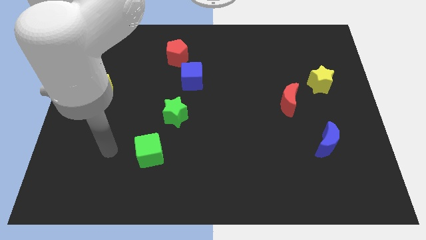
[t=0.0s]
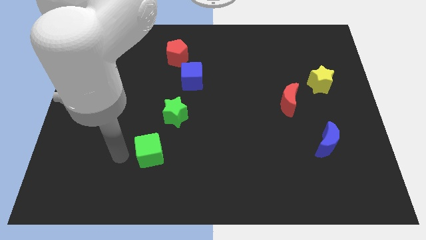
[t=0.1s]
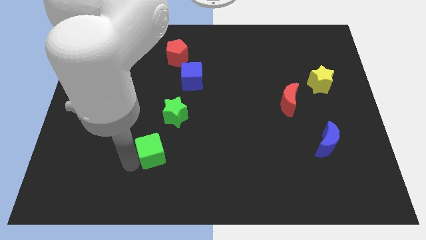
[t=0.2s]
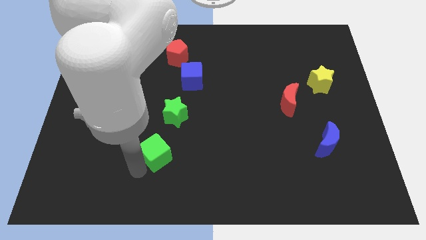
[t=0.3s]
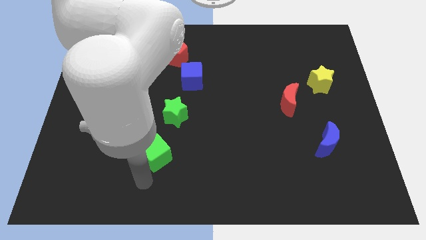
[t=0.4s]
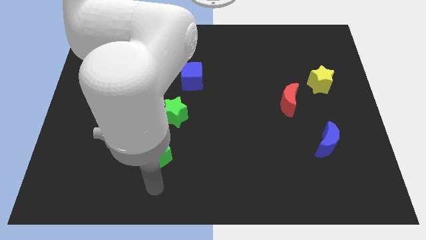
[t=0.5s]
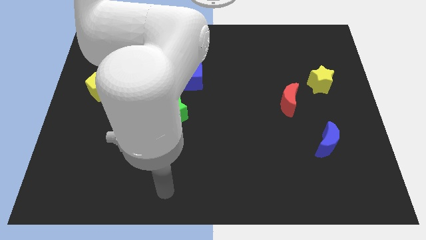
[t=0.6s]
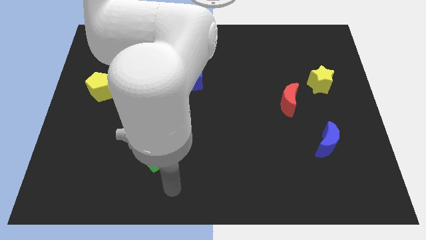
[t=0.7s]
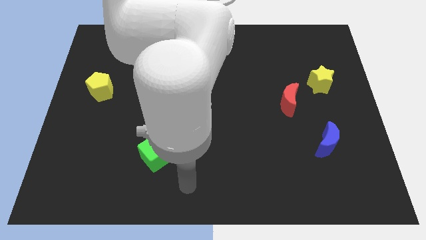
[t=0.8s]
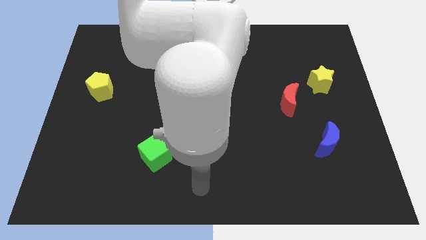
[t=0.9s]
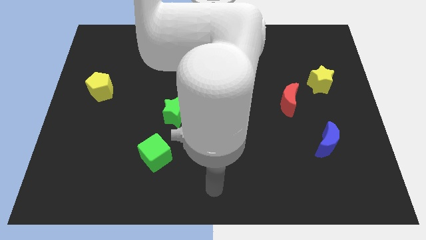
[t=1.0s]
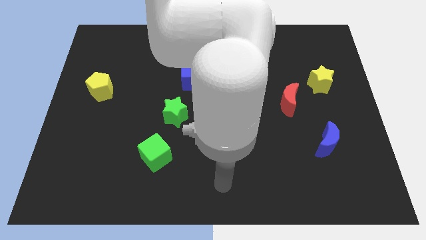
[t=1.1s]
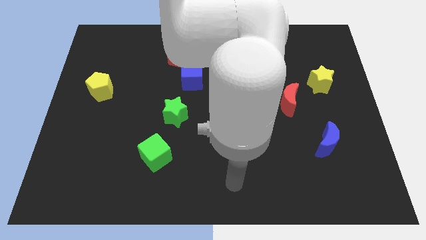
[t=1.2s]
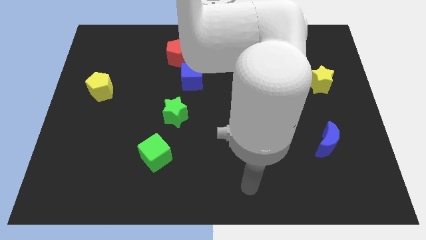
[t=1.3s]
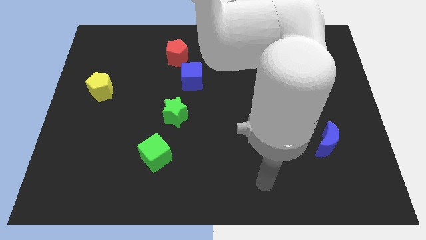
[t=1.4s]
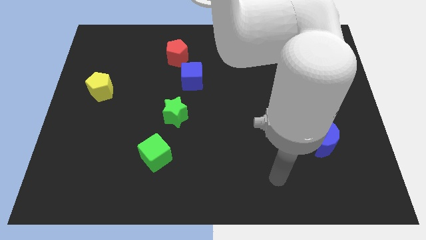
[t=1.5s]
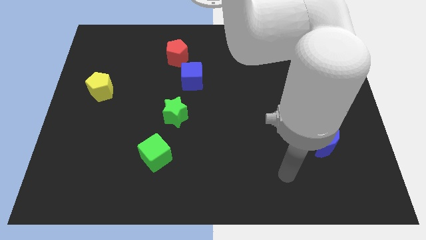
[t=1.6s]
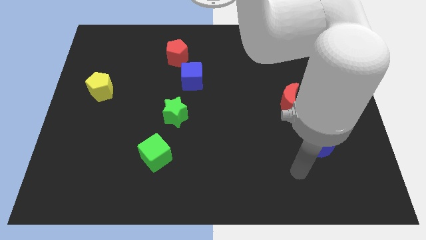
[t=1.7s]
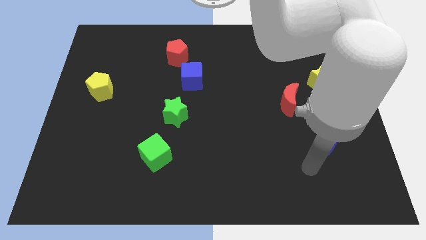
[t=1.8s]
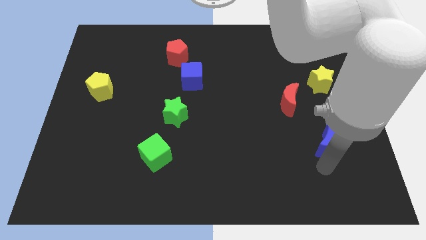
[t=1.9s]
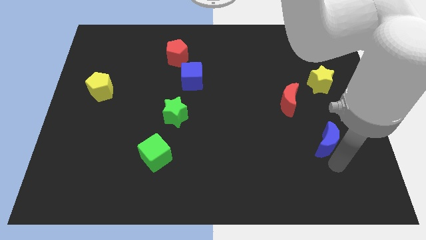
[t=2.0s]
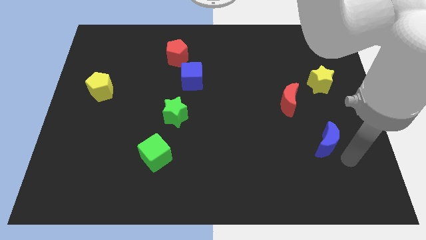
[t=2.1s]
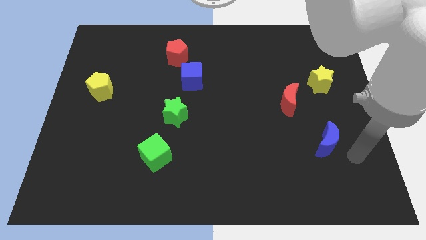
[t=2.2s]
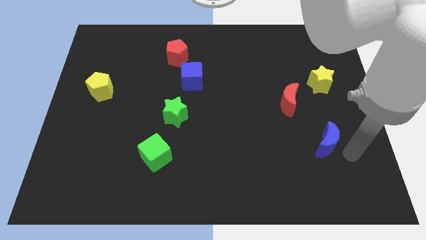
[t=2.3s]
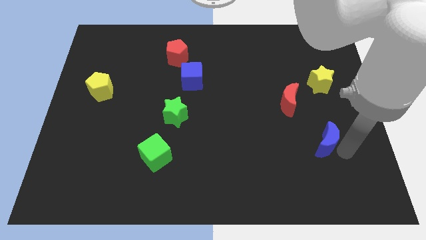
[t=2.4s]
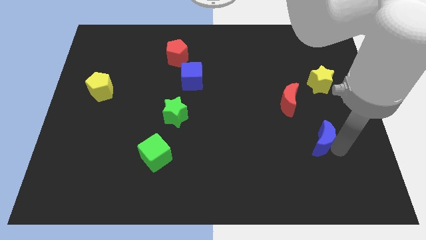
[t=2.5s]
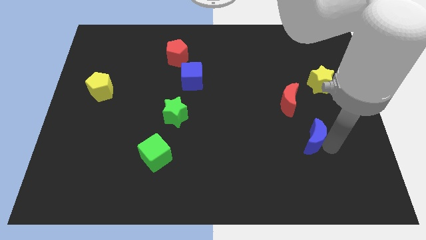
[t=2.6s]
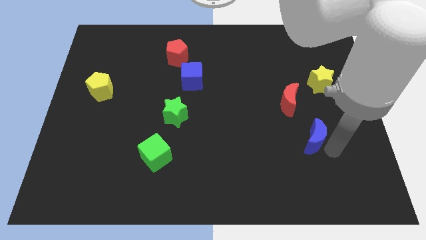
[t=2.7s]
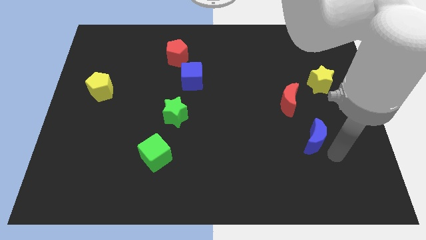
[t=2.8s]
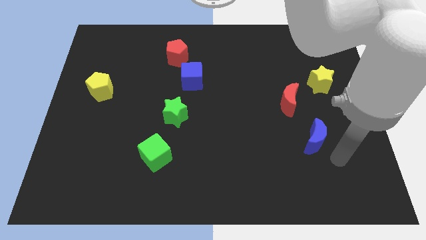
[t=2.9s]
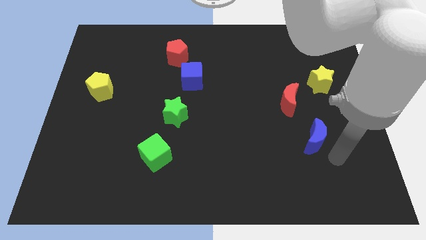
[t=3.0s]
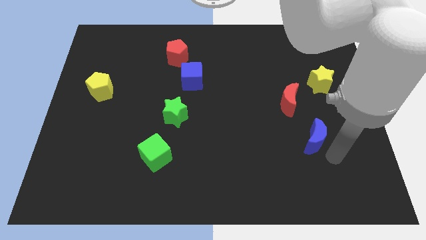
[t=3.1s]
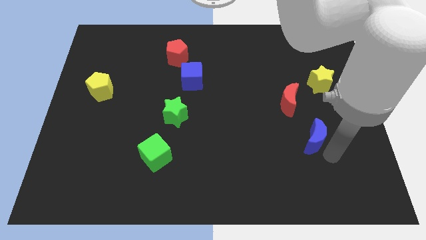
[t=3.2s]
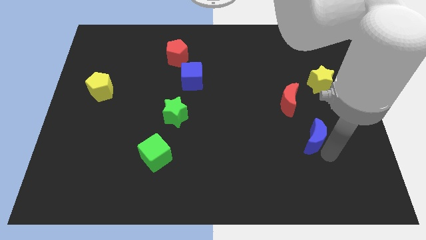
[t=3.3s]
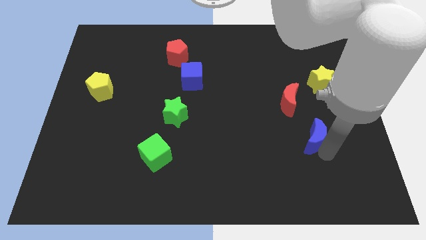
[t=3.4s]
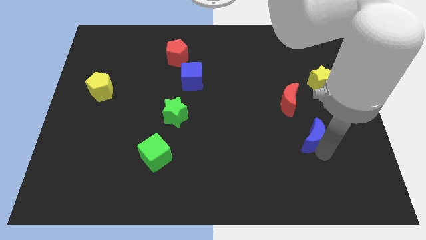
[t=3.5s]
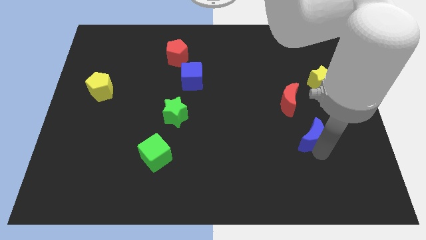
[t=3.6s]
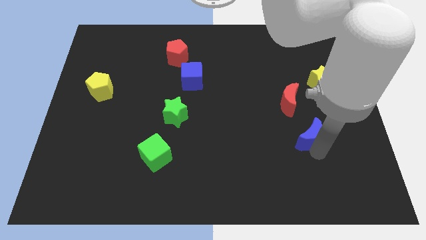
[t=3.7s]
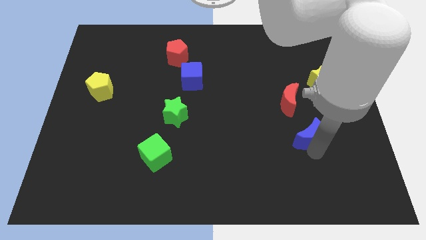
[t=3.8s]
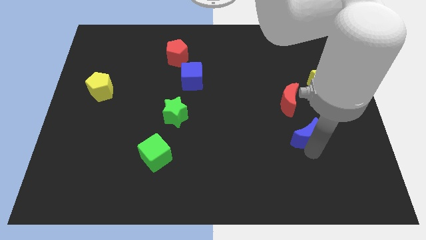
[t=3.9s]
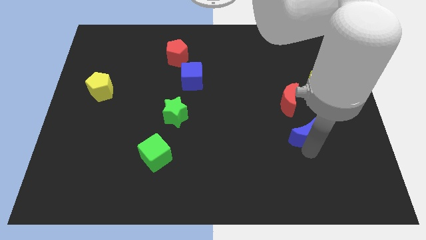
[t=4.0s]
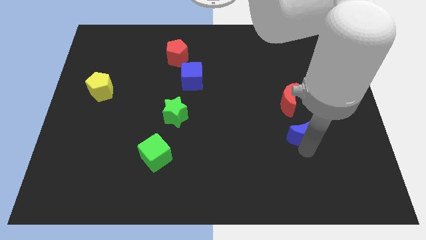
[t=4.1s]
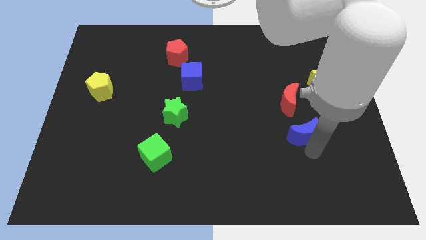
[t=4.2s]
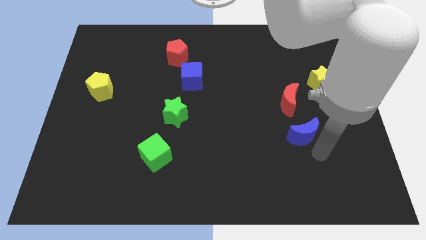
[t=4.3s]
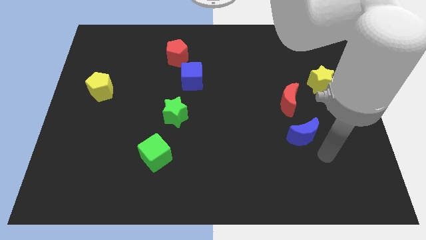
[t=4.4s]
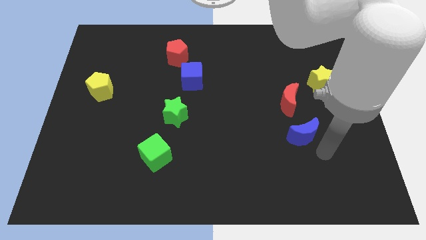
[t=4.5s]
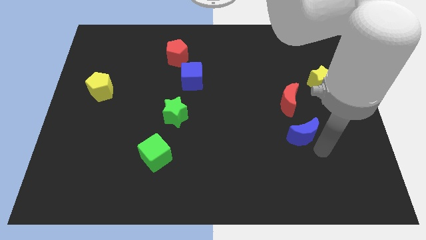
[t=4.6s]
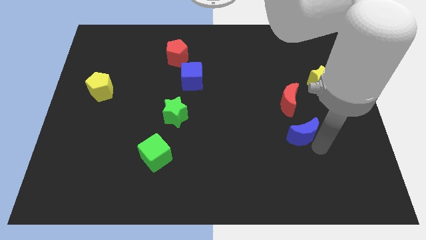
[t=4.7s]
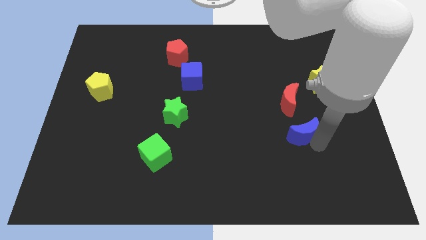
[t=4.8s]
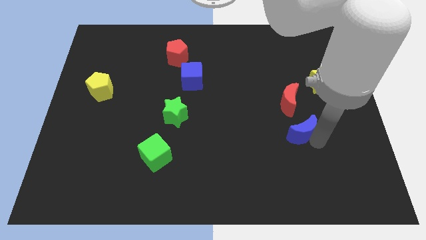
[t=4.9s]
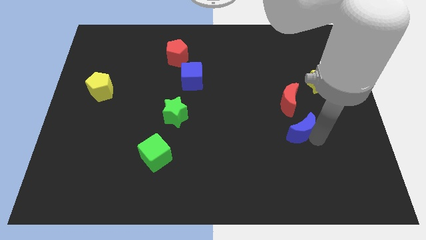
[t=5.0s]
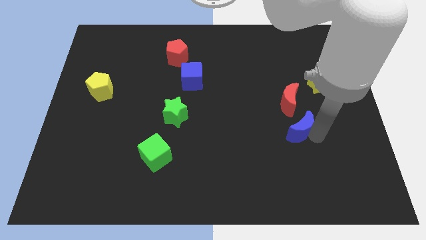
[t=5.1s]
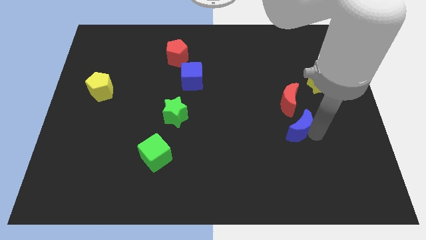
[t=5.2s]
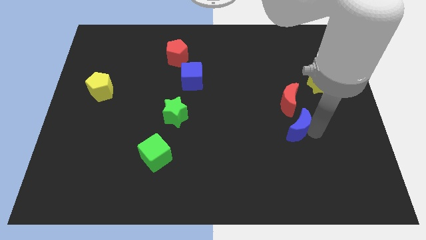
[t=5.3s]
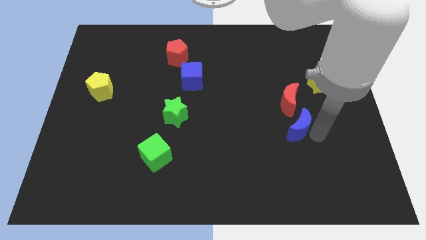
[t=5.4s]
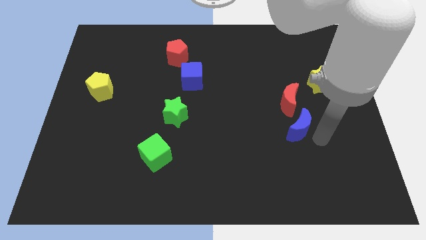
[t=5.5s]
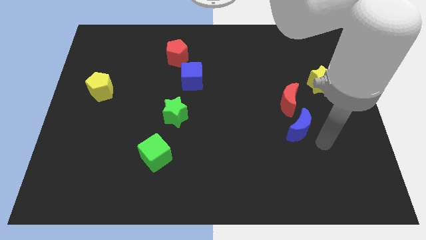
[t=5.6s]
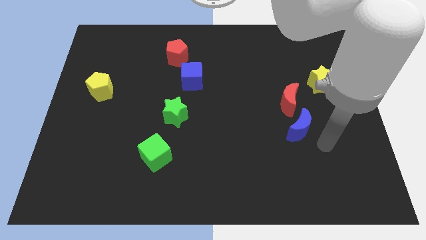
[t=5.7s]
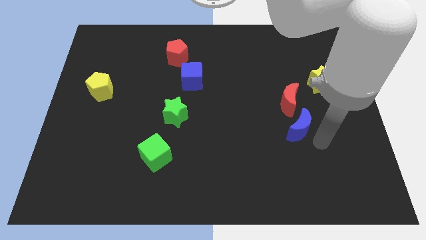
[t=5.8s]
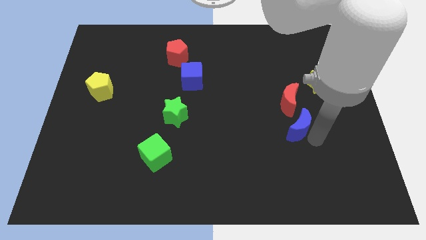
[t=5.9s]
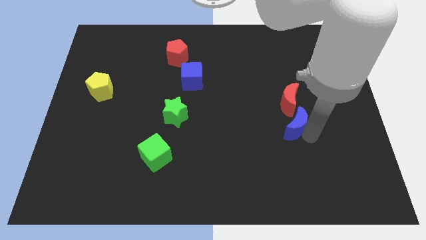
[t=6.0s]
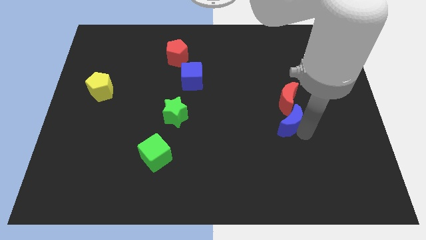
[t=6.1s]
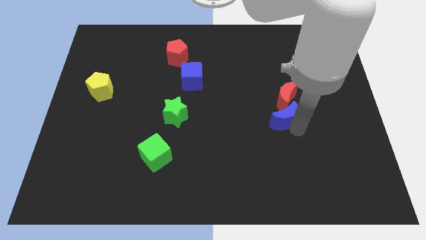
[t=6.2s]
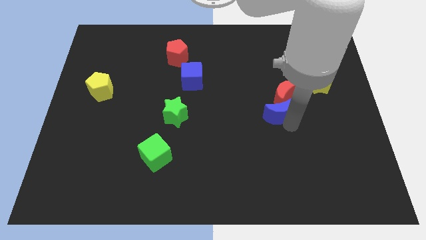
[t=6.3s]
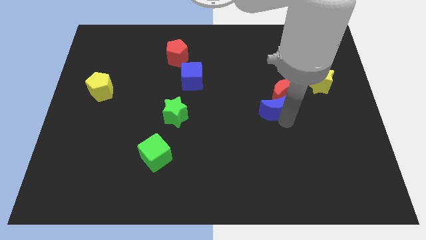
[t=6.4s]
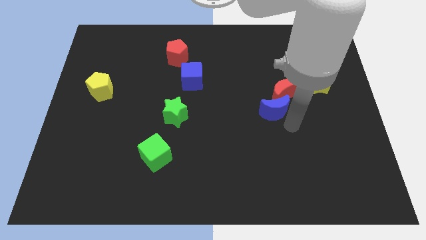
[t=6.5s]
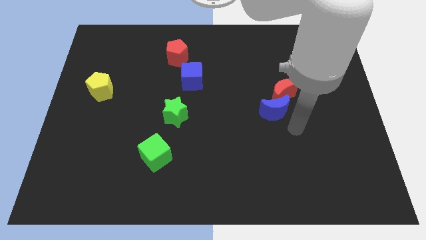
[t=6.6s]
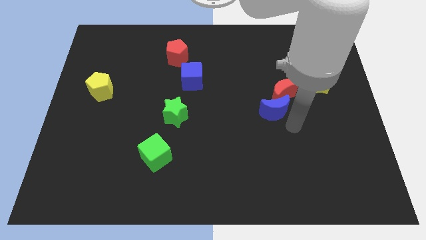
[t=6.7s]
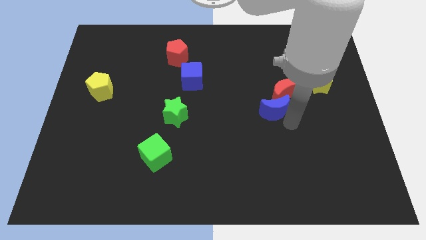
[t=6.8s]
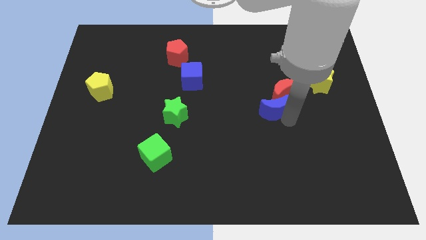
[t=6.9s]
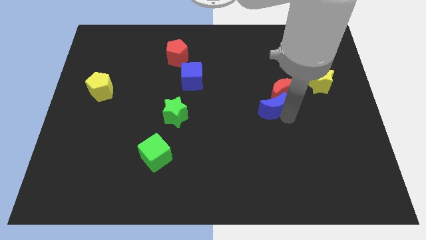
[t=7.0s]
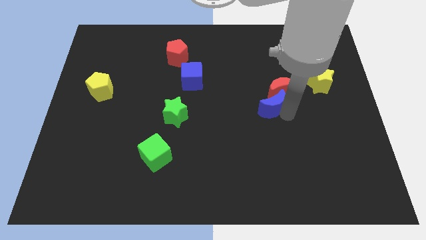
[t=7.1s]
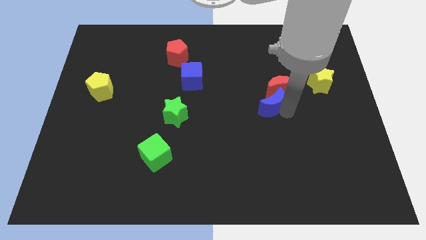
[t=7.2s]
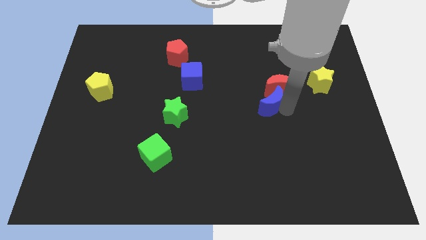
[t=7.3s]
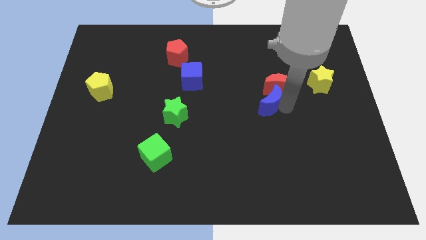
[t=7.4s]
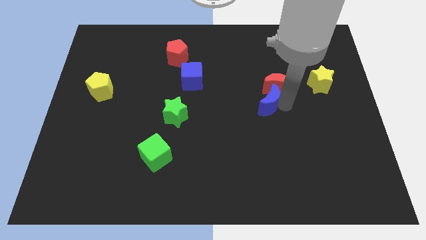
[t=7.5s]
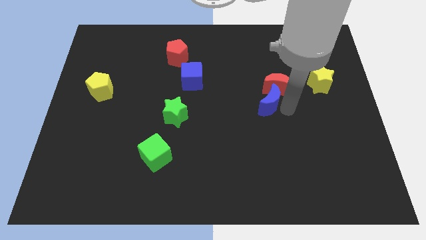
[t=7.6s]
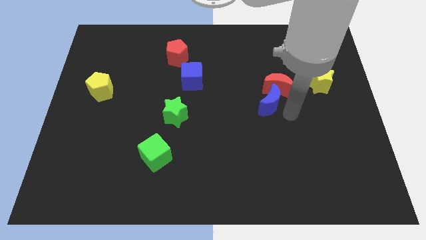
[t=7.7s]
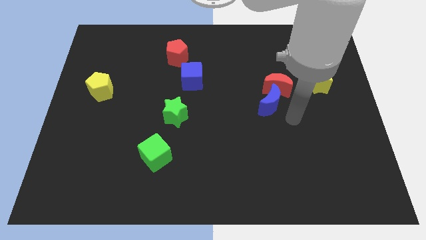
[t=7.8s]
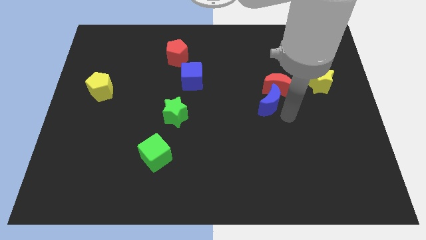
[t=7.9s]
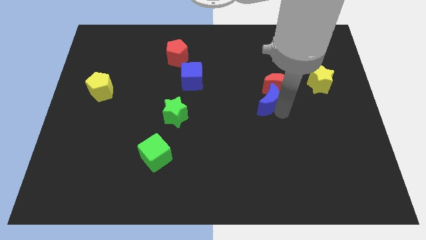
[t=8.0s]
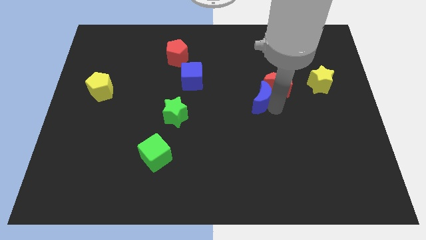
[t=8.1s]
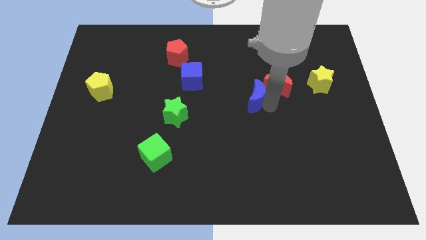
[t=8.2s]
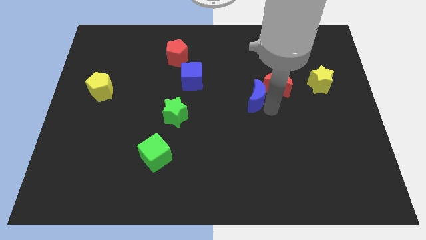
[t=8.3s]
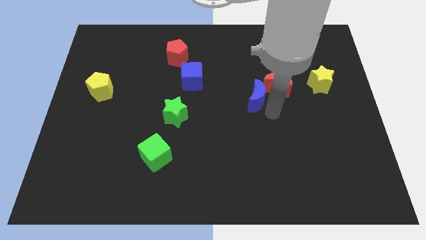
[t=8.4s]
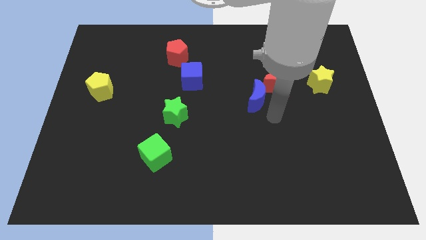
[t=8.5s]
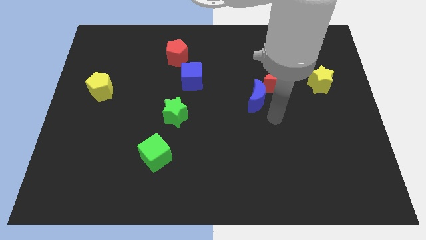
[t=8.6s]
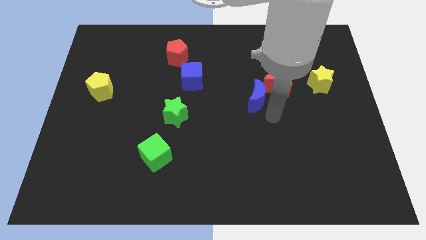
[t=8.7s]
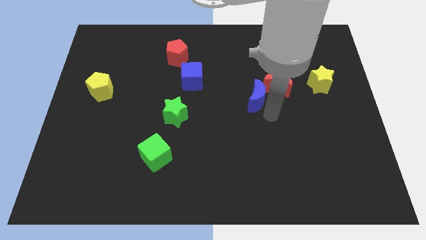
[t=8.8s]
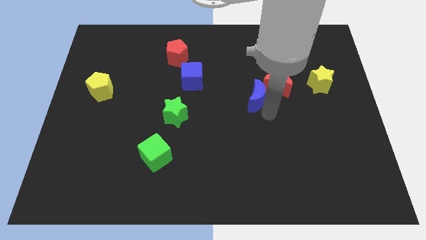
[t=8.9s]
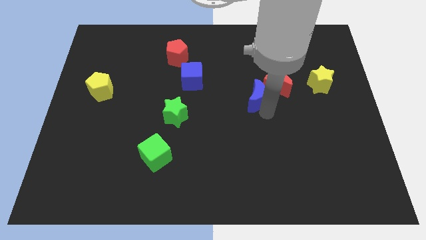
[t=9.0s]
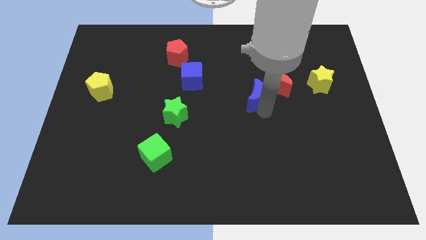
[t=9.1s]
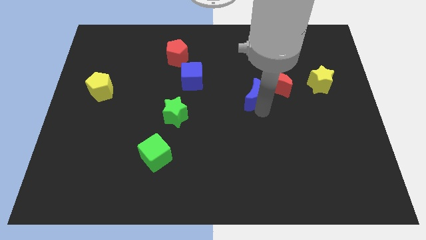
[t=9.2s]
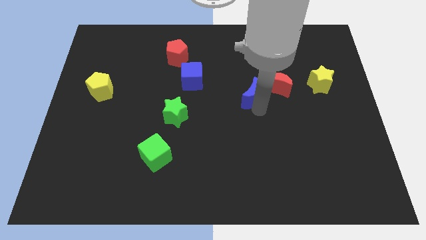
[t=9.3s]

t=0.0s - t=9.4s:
slide the blue moon up and to the left diagonally
